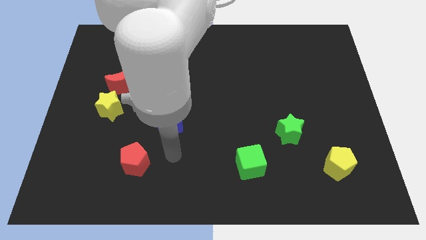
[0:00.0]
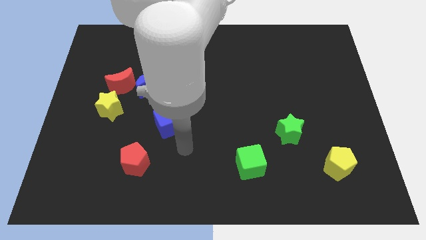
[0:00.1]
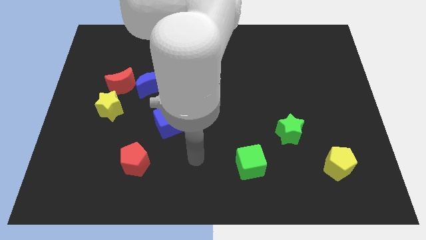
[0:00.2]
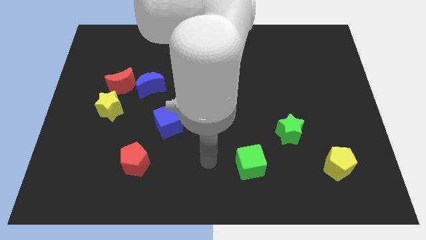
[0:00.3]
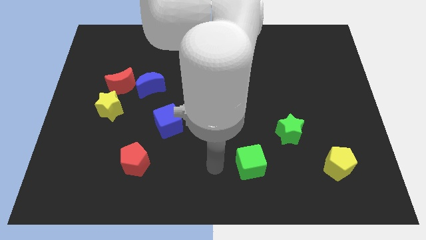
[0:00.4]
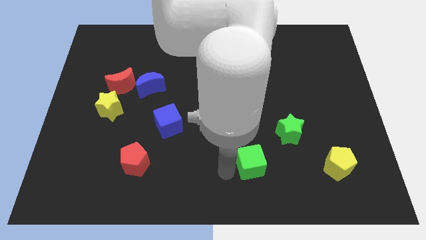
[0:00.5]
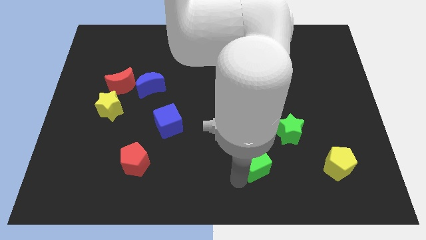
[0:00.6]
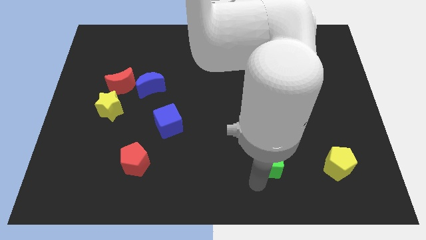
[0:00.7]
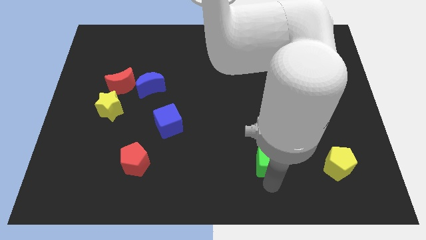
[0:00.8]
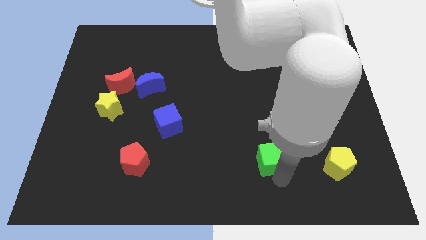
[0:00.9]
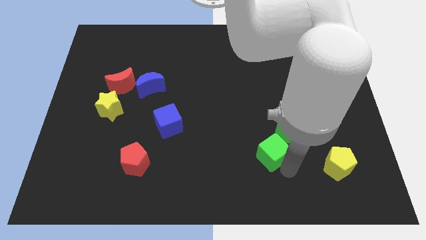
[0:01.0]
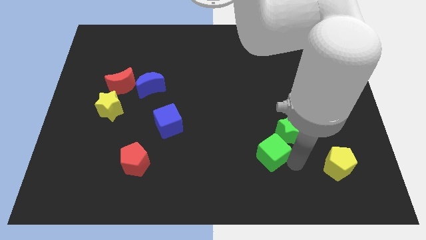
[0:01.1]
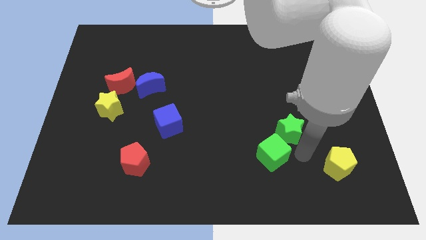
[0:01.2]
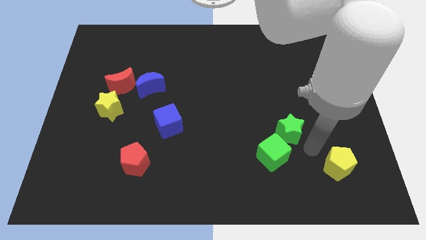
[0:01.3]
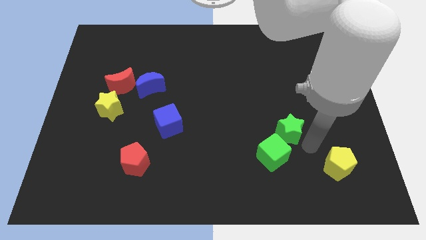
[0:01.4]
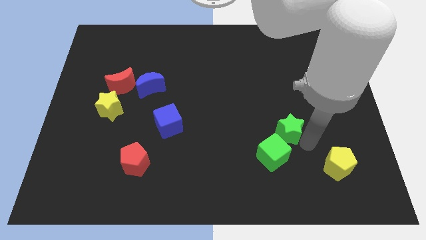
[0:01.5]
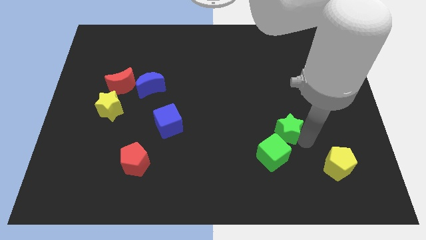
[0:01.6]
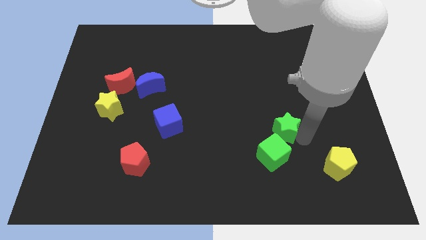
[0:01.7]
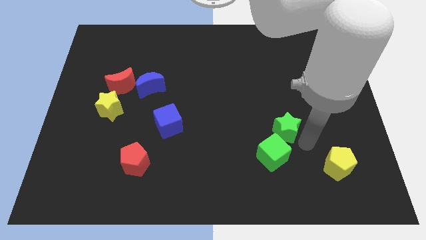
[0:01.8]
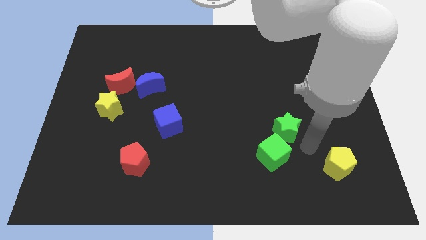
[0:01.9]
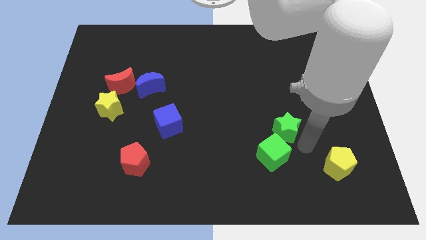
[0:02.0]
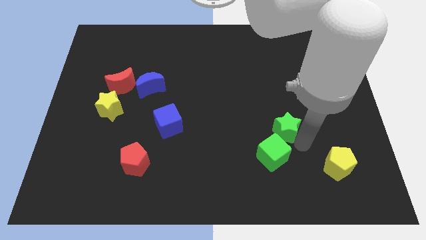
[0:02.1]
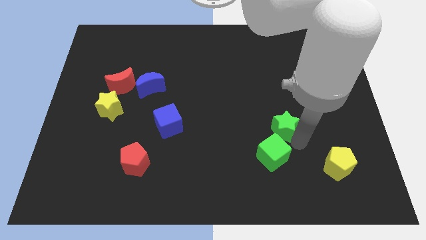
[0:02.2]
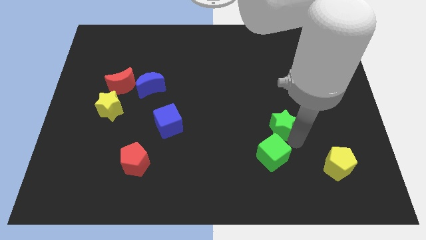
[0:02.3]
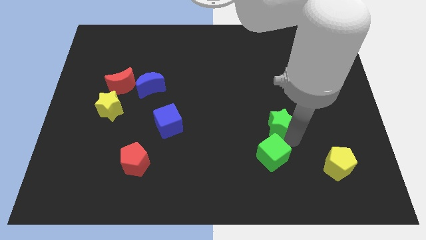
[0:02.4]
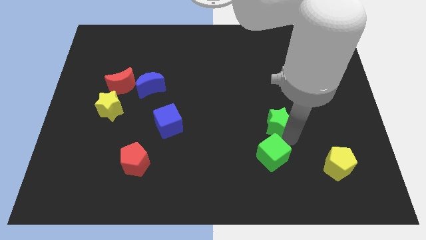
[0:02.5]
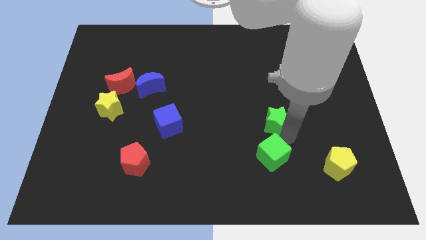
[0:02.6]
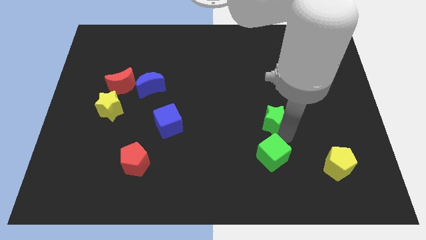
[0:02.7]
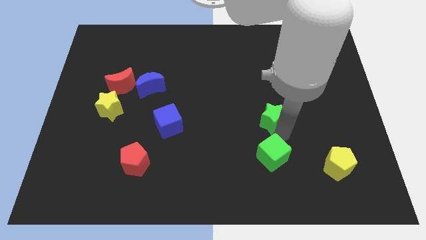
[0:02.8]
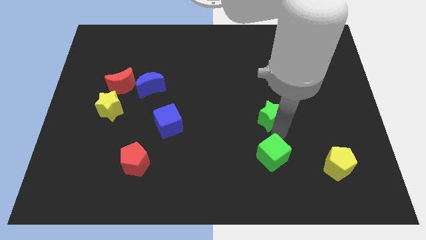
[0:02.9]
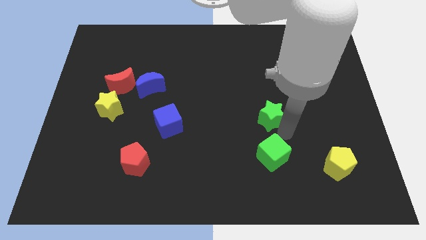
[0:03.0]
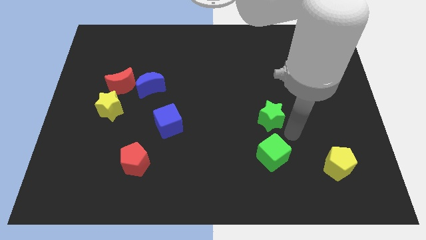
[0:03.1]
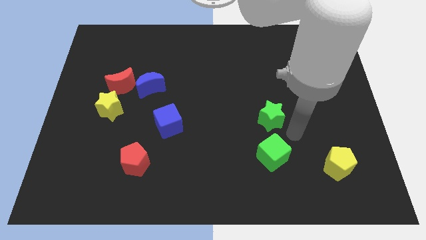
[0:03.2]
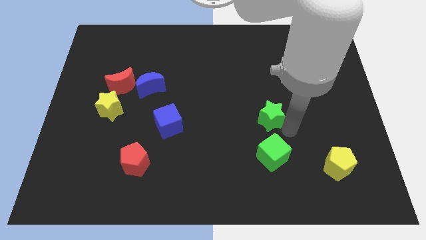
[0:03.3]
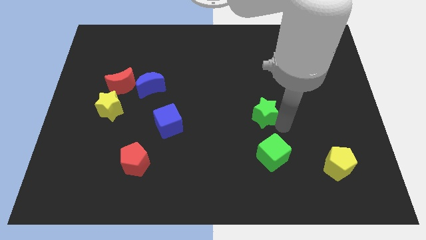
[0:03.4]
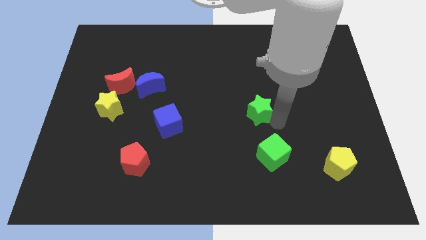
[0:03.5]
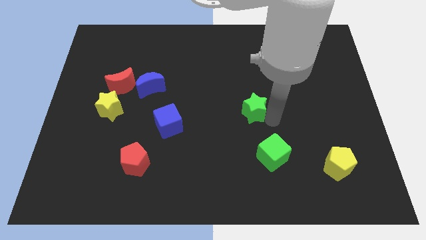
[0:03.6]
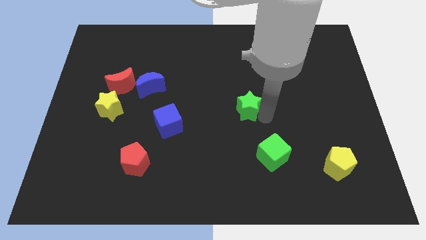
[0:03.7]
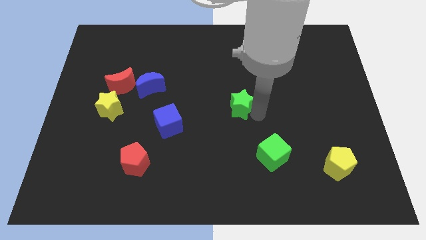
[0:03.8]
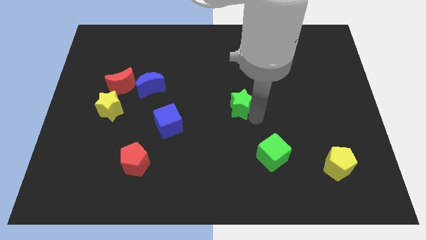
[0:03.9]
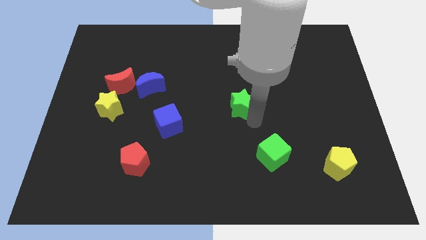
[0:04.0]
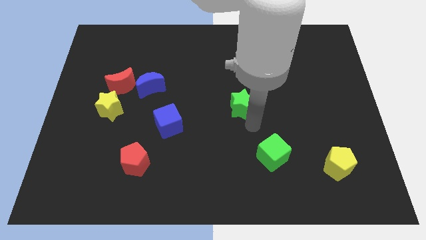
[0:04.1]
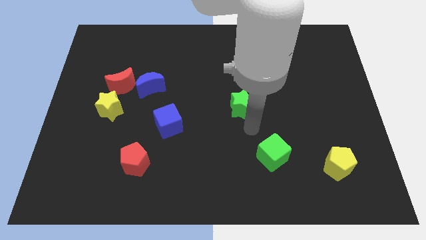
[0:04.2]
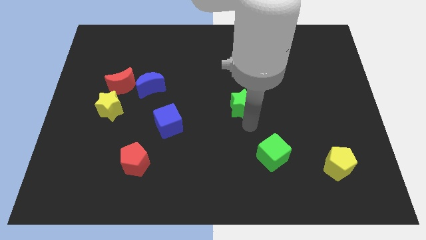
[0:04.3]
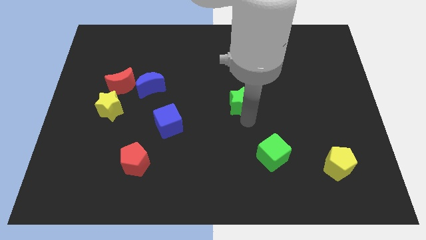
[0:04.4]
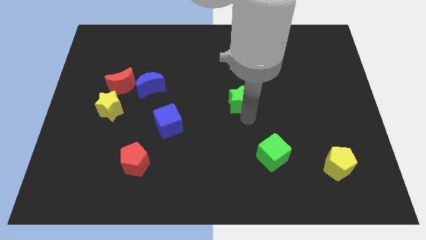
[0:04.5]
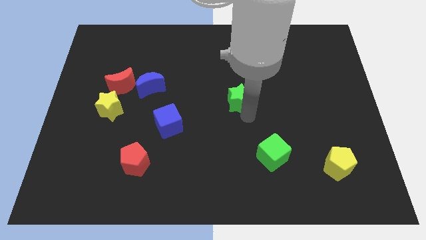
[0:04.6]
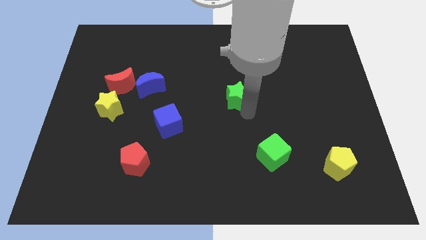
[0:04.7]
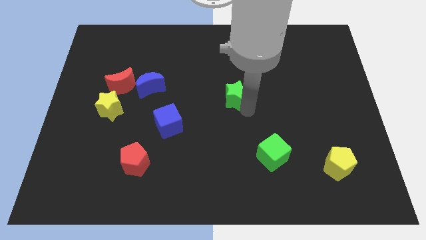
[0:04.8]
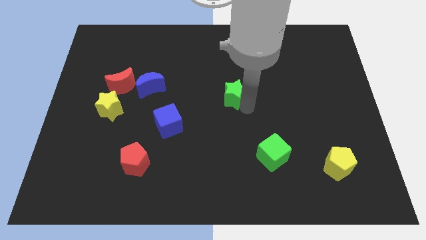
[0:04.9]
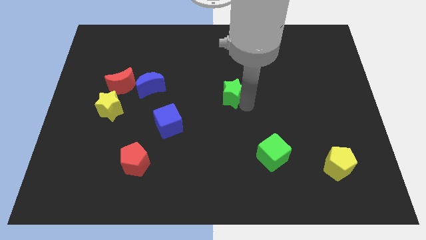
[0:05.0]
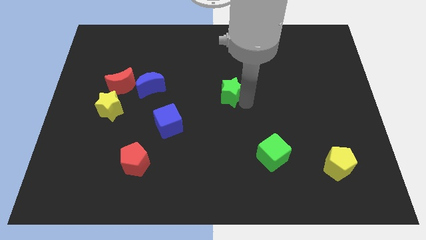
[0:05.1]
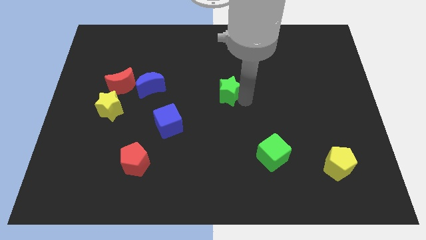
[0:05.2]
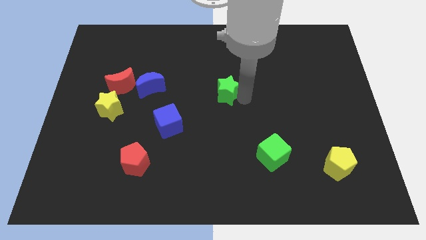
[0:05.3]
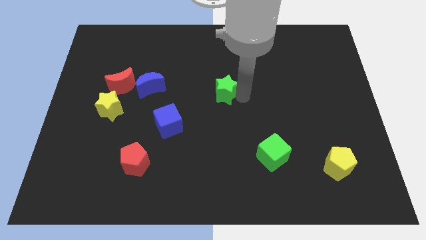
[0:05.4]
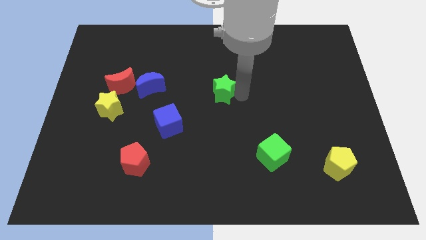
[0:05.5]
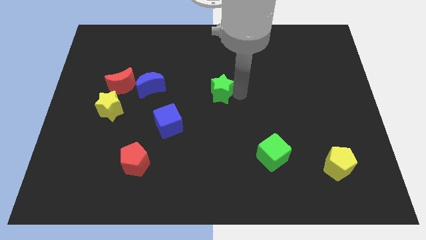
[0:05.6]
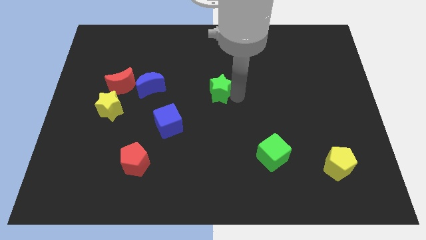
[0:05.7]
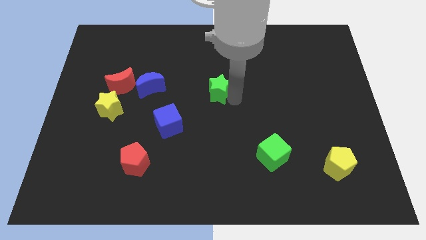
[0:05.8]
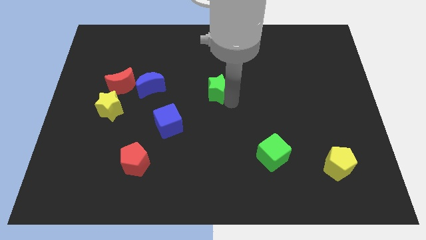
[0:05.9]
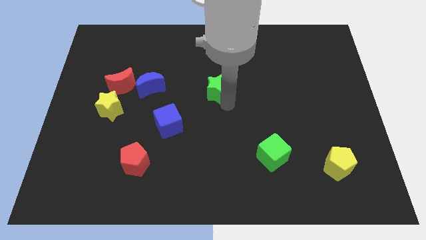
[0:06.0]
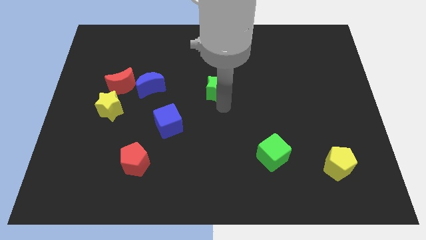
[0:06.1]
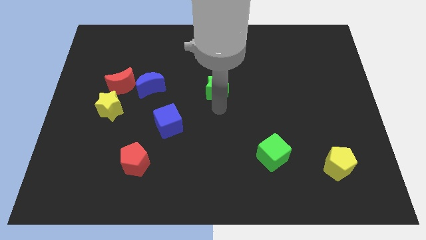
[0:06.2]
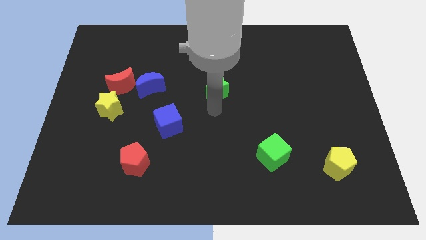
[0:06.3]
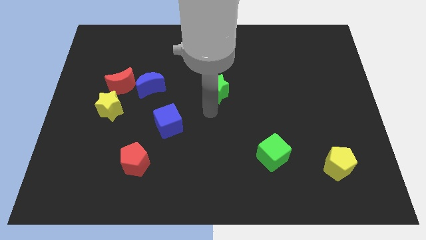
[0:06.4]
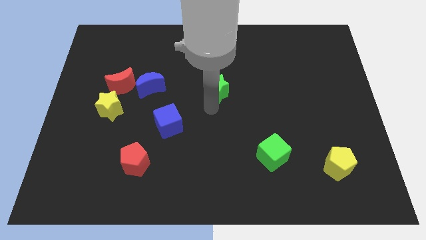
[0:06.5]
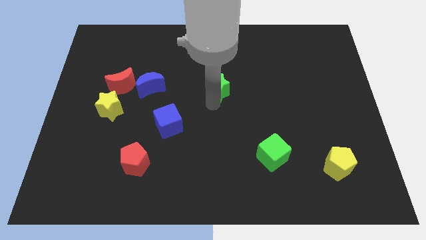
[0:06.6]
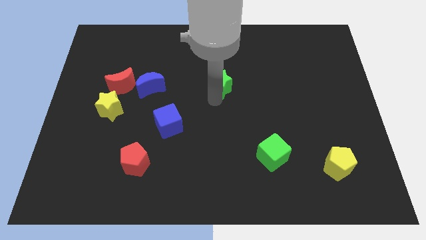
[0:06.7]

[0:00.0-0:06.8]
push the green star upwards and then left

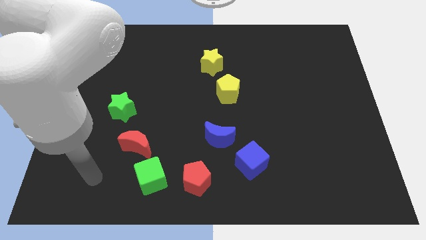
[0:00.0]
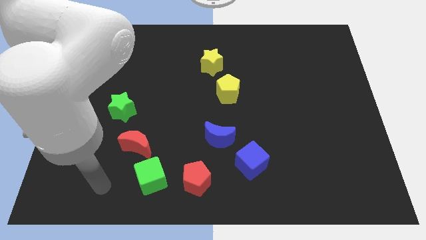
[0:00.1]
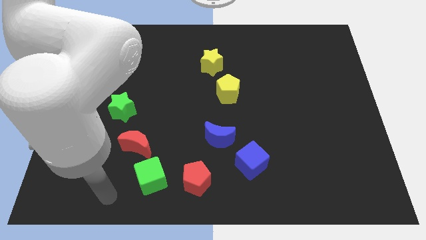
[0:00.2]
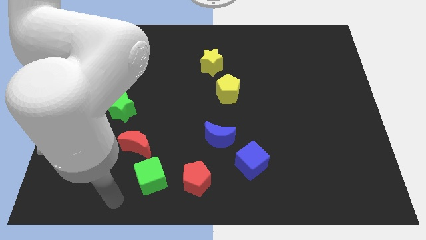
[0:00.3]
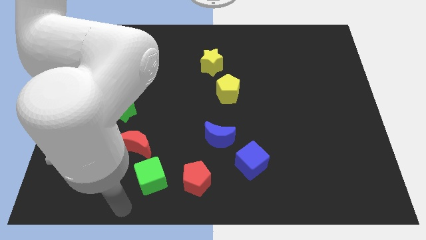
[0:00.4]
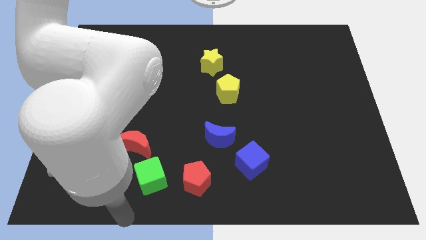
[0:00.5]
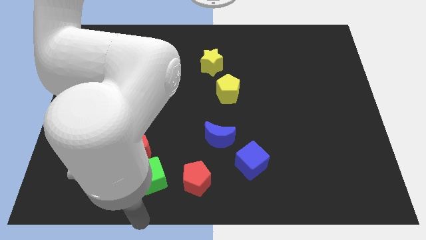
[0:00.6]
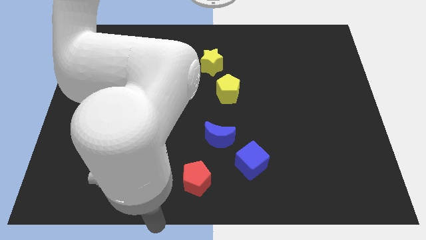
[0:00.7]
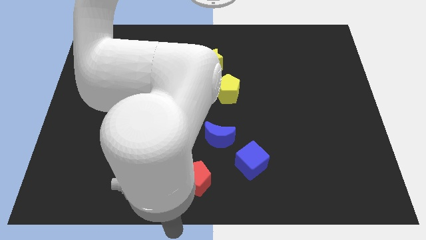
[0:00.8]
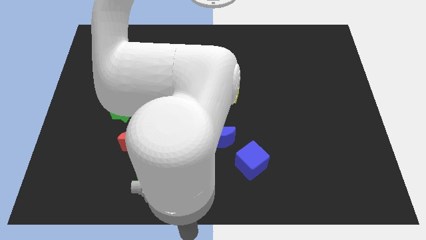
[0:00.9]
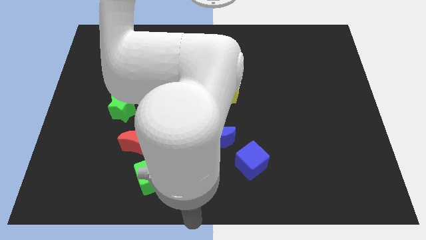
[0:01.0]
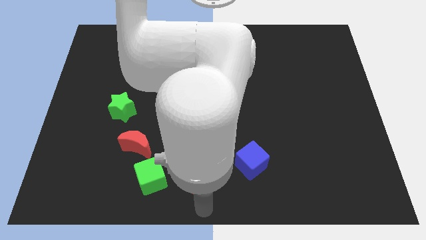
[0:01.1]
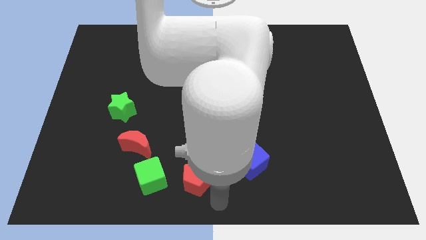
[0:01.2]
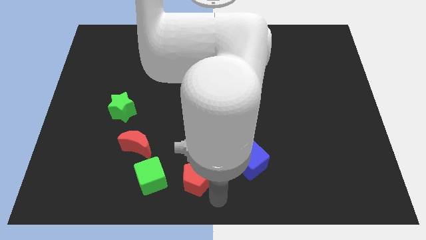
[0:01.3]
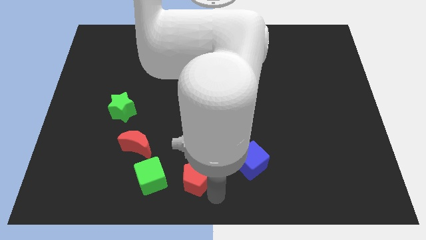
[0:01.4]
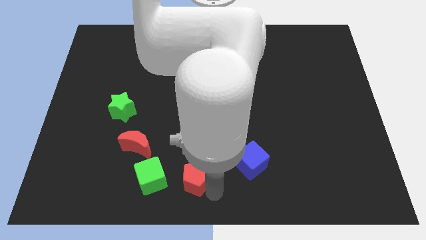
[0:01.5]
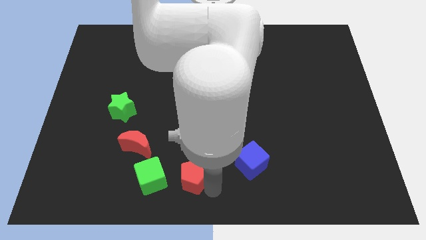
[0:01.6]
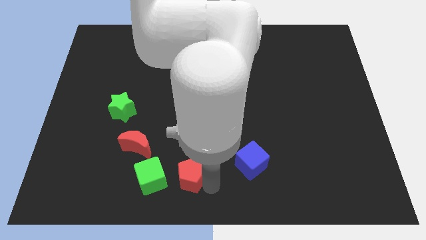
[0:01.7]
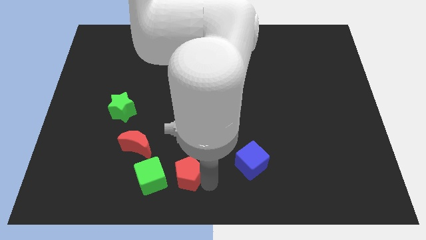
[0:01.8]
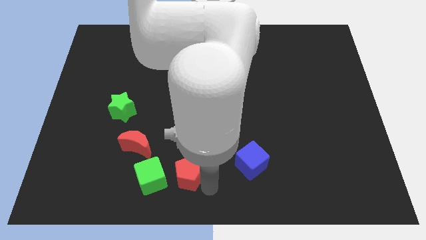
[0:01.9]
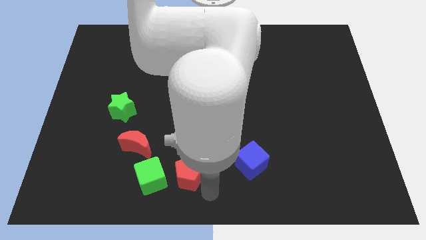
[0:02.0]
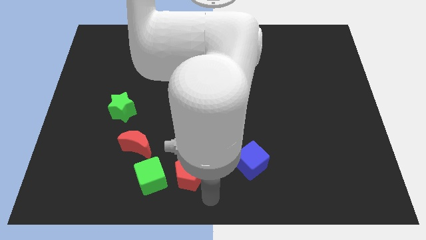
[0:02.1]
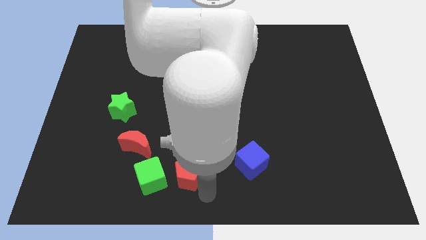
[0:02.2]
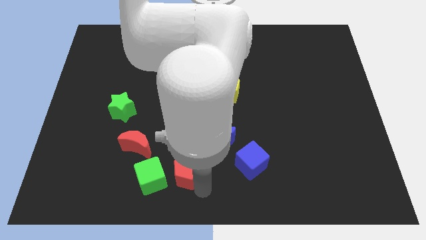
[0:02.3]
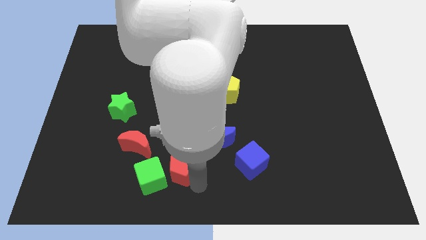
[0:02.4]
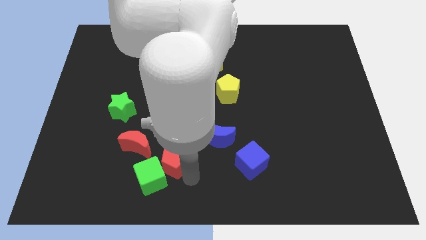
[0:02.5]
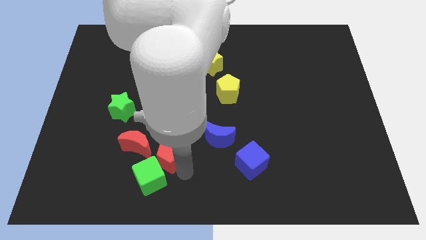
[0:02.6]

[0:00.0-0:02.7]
slightly push the red pentagon upwards and to the left diagonally
